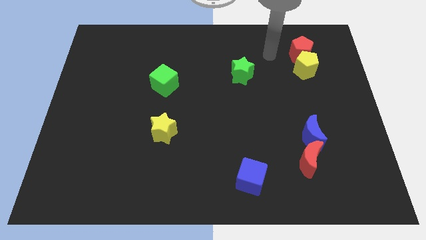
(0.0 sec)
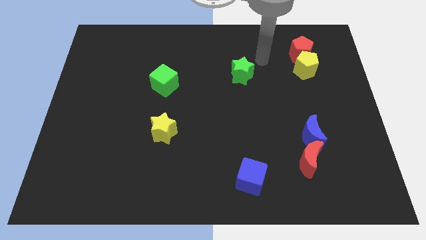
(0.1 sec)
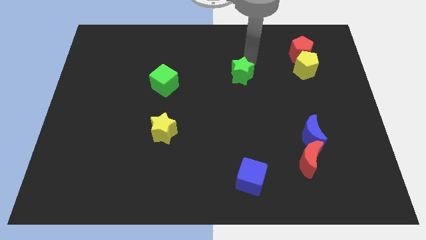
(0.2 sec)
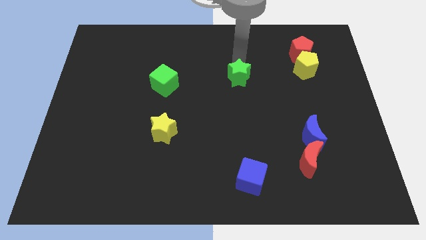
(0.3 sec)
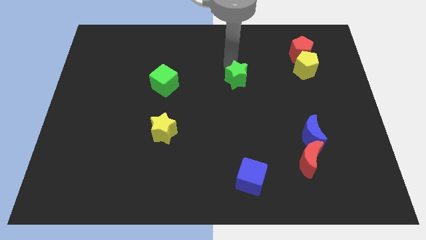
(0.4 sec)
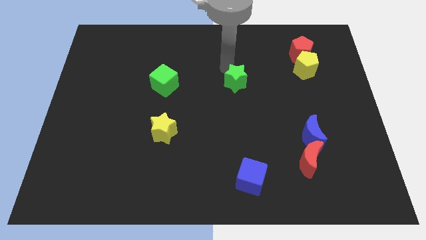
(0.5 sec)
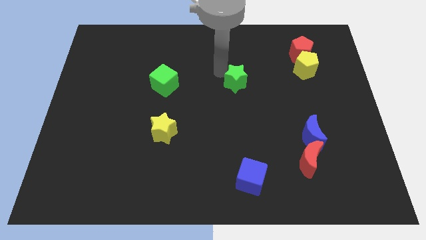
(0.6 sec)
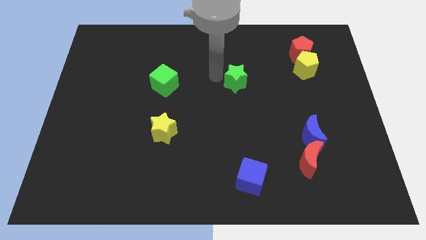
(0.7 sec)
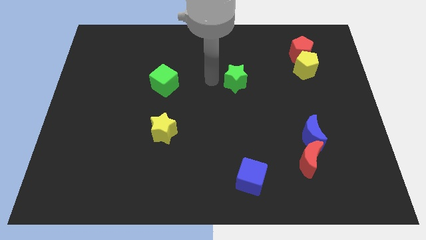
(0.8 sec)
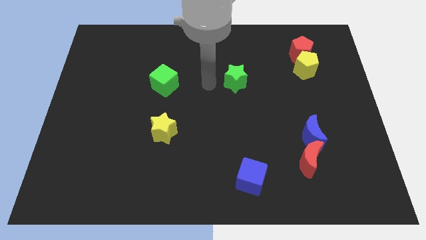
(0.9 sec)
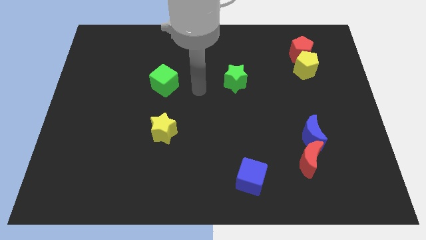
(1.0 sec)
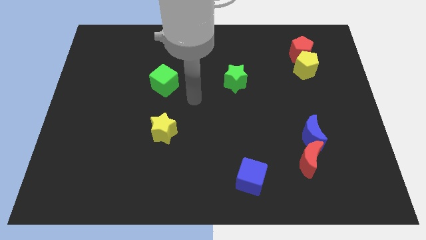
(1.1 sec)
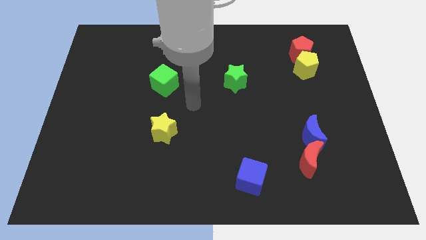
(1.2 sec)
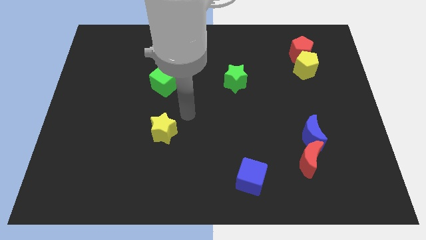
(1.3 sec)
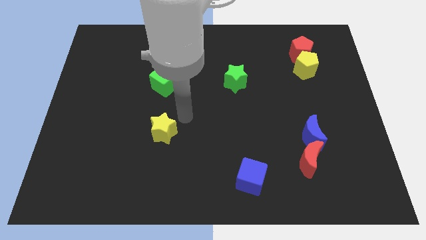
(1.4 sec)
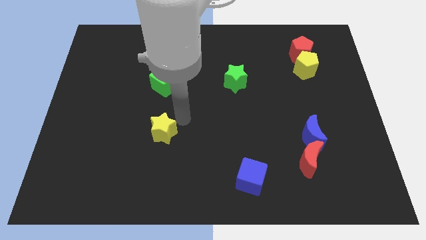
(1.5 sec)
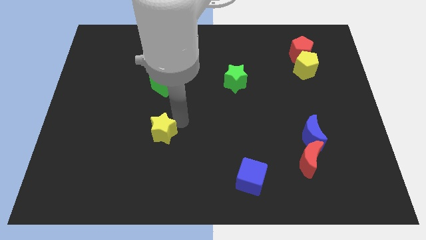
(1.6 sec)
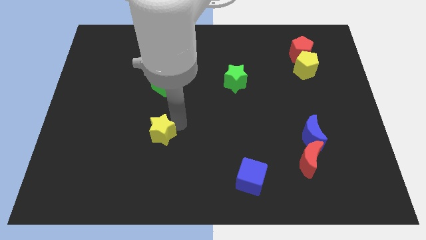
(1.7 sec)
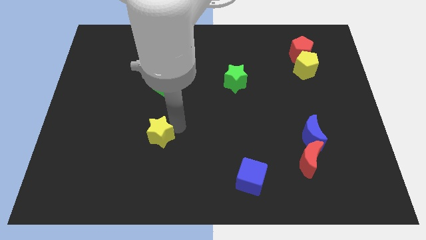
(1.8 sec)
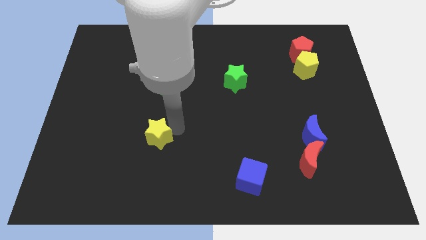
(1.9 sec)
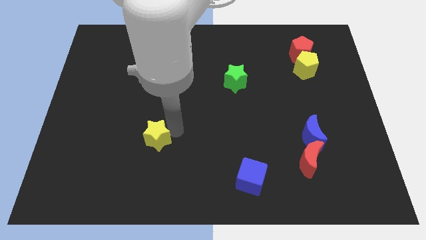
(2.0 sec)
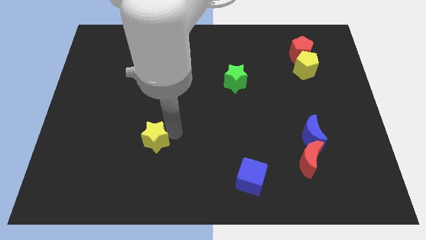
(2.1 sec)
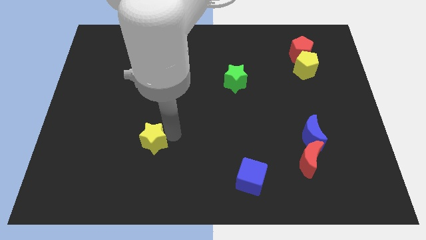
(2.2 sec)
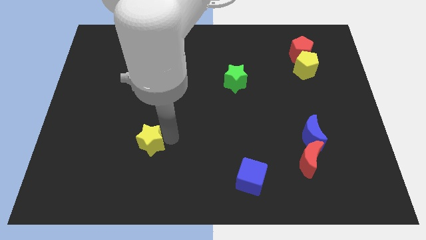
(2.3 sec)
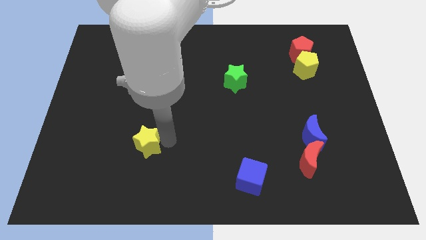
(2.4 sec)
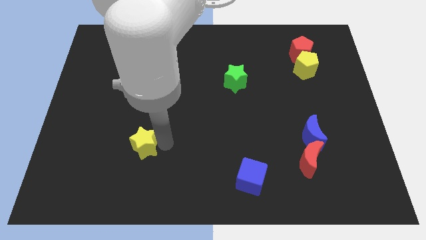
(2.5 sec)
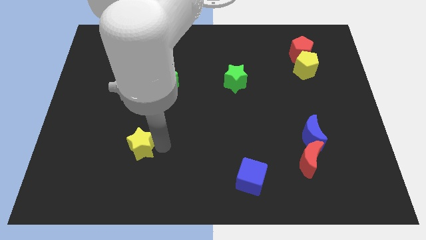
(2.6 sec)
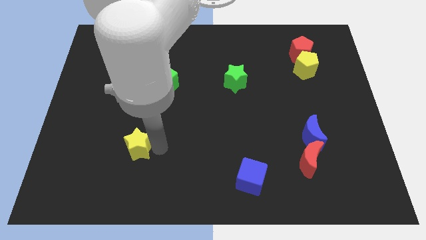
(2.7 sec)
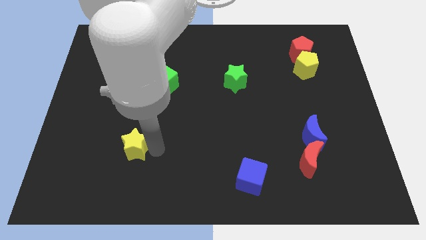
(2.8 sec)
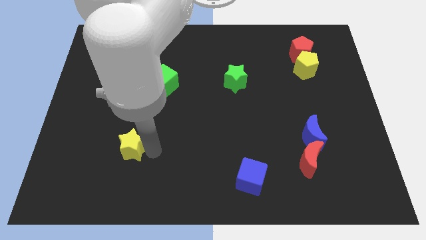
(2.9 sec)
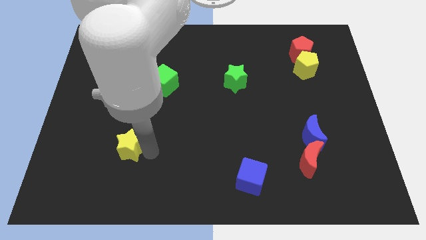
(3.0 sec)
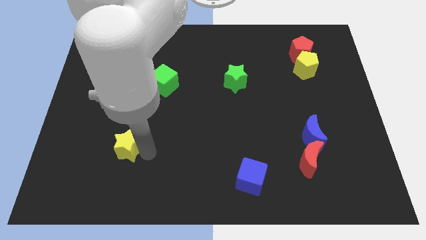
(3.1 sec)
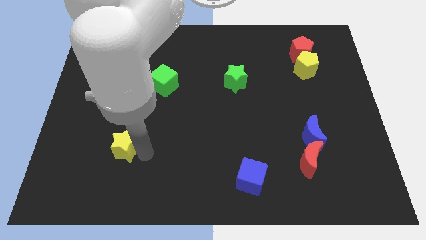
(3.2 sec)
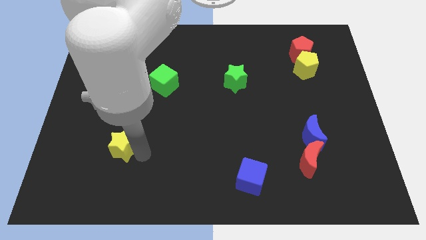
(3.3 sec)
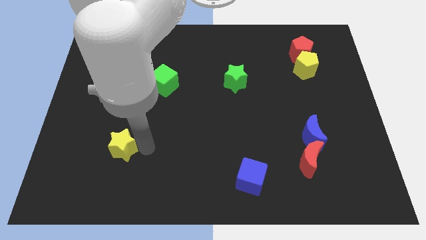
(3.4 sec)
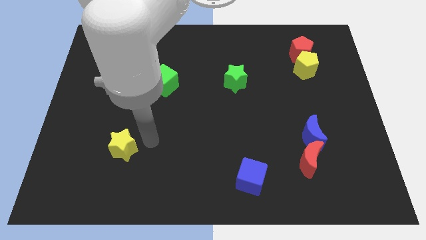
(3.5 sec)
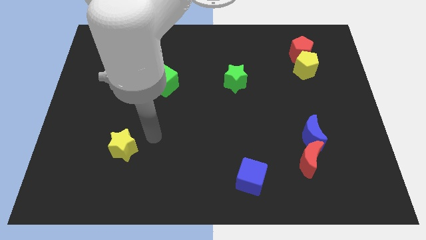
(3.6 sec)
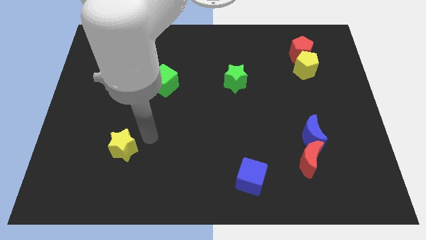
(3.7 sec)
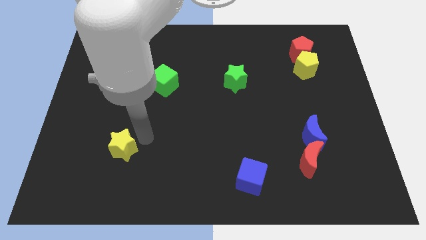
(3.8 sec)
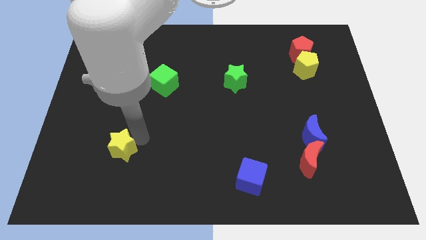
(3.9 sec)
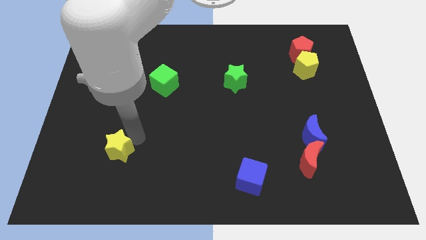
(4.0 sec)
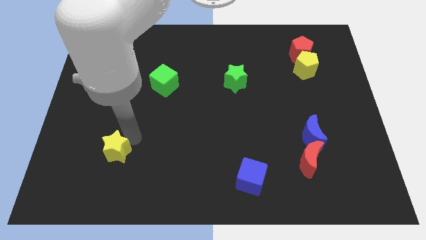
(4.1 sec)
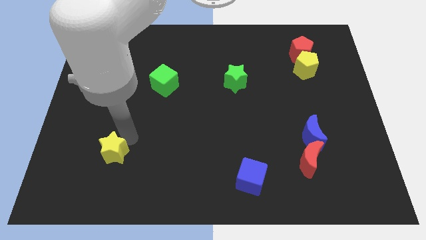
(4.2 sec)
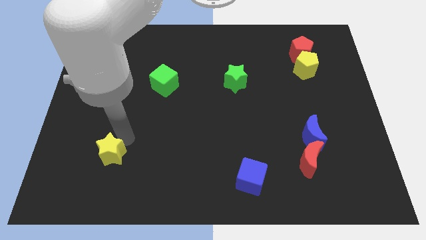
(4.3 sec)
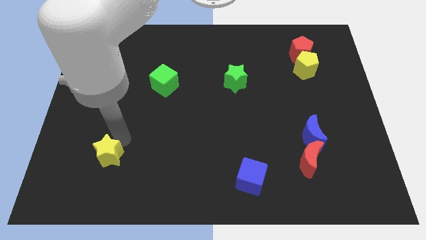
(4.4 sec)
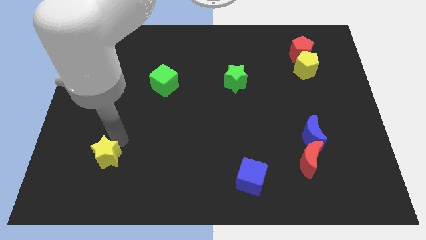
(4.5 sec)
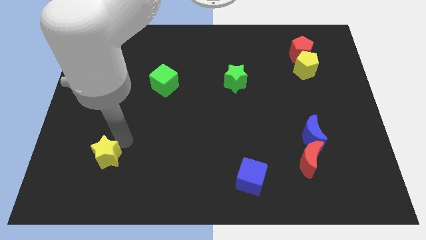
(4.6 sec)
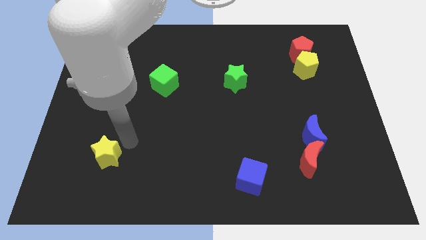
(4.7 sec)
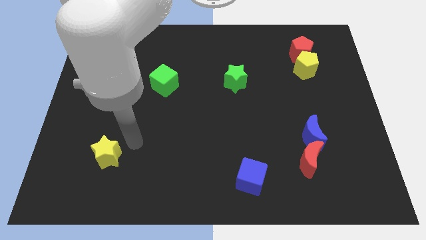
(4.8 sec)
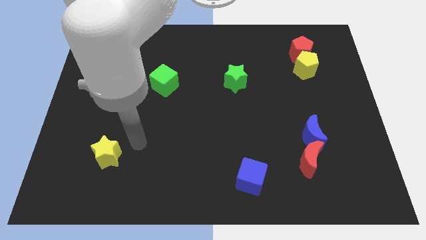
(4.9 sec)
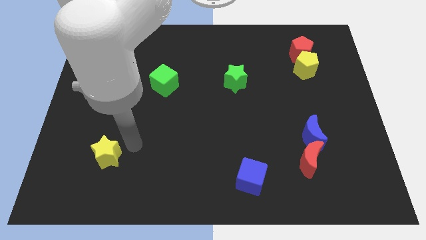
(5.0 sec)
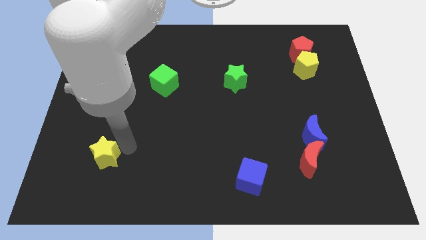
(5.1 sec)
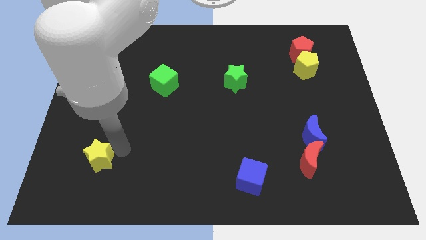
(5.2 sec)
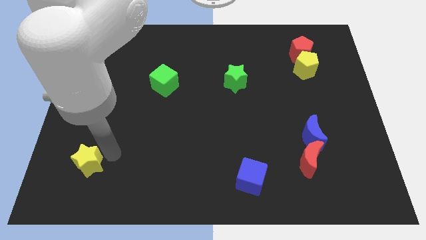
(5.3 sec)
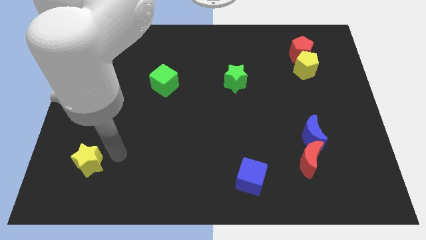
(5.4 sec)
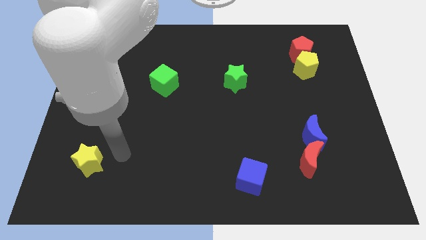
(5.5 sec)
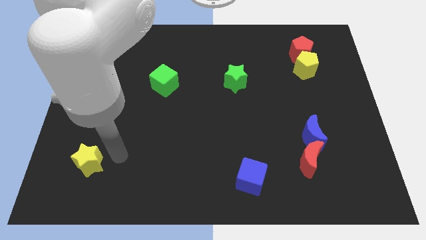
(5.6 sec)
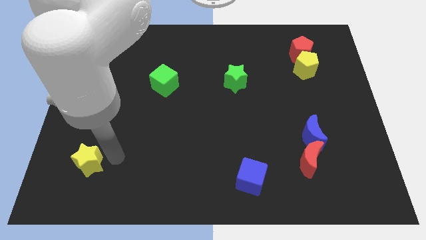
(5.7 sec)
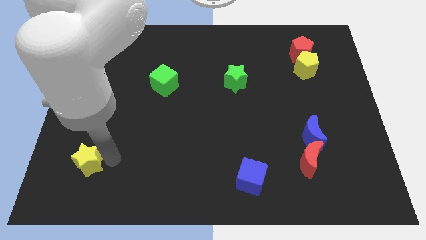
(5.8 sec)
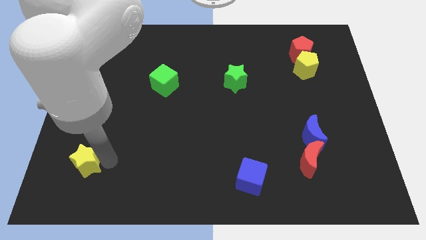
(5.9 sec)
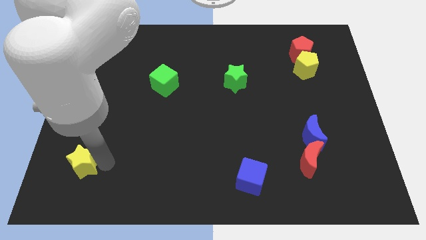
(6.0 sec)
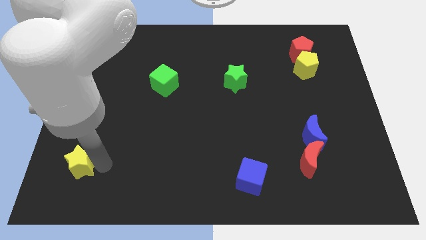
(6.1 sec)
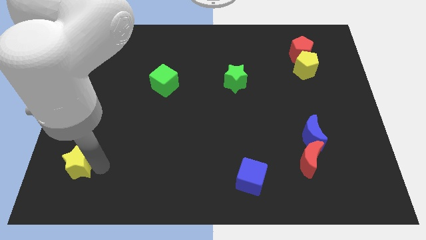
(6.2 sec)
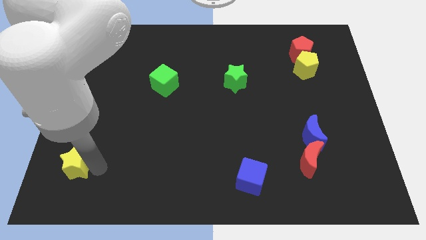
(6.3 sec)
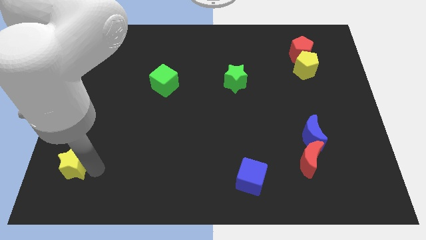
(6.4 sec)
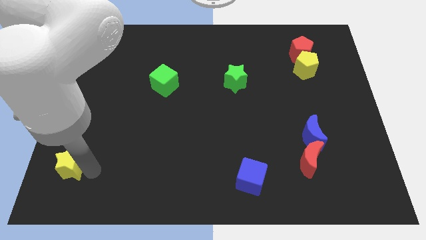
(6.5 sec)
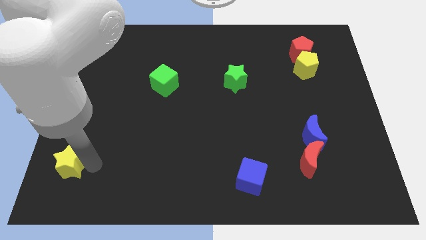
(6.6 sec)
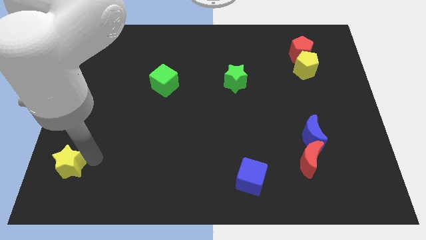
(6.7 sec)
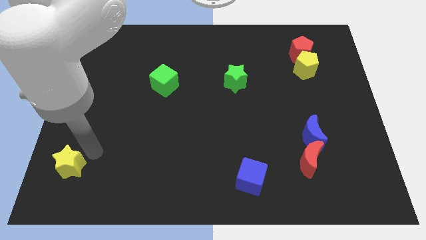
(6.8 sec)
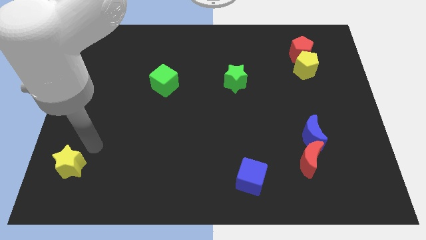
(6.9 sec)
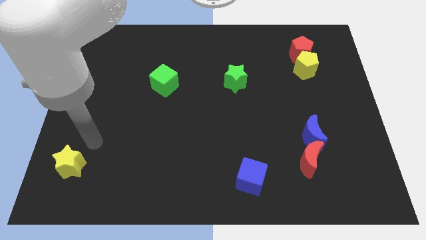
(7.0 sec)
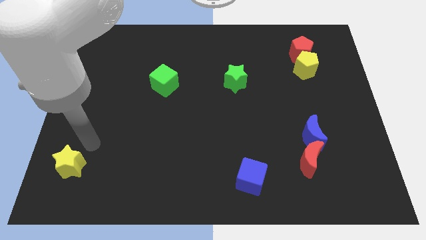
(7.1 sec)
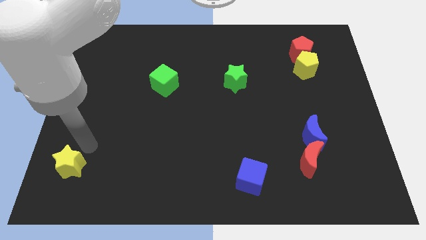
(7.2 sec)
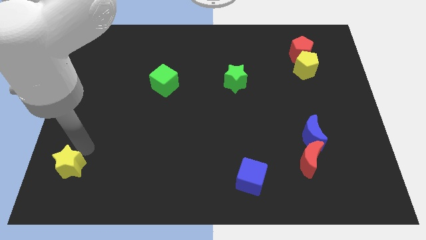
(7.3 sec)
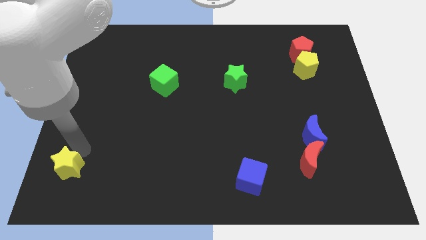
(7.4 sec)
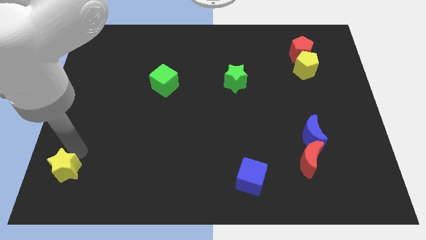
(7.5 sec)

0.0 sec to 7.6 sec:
slide the yellow star to the bottom left
